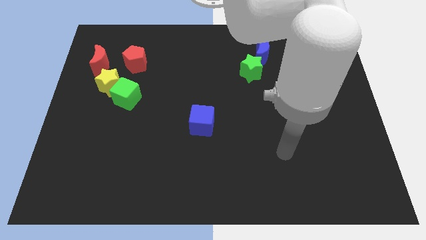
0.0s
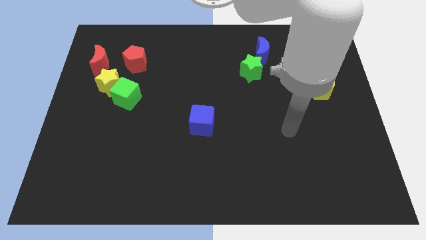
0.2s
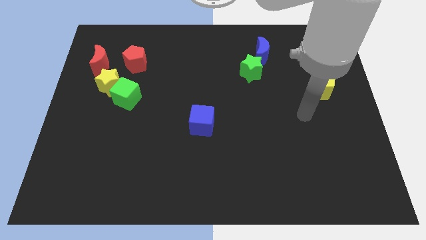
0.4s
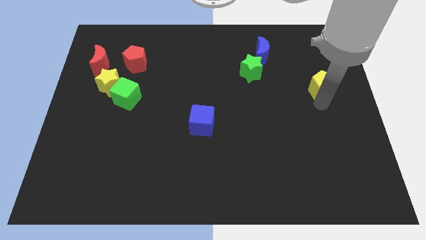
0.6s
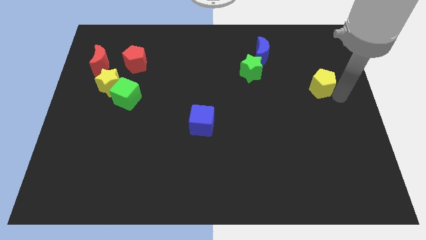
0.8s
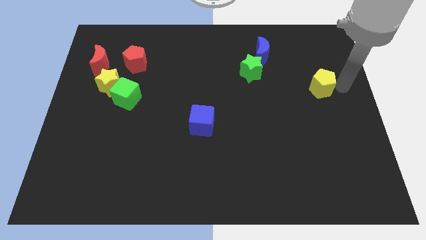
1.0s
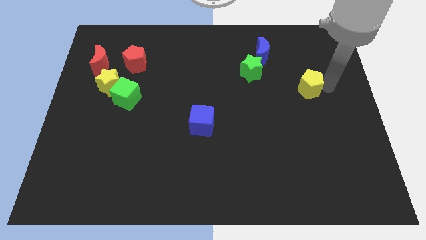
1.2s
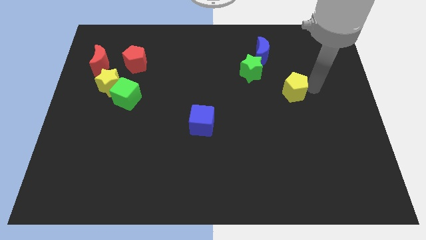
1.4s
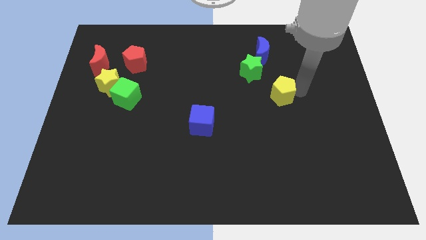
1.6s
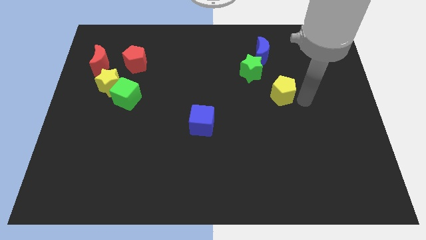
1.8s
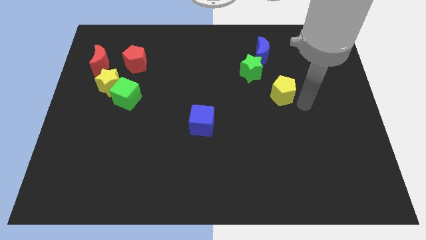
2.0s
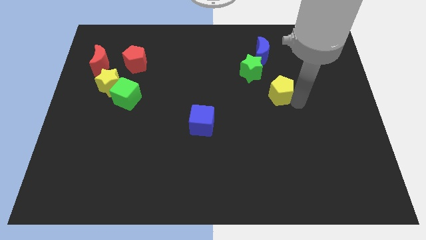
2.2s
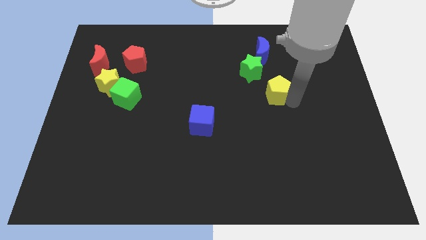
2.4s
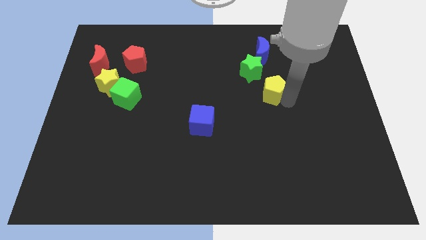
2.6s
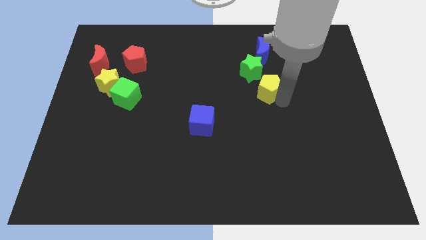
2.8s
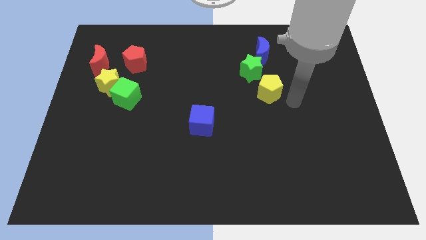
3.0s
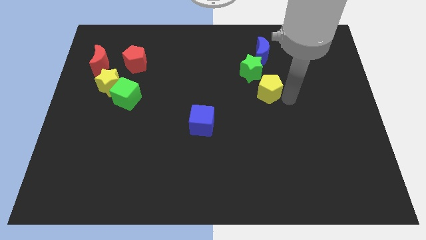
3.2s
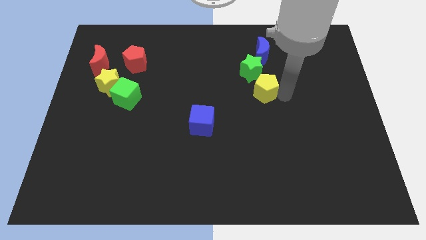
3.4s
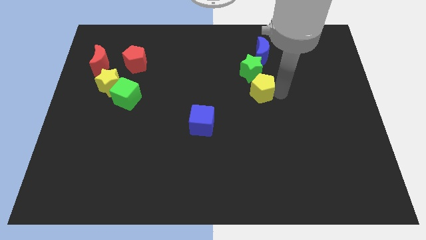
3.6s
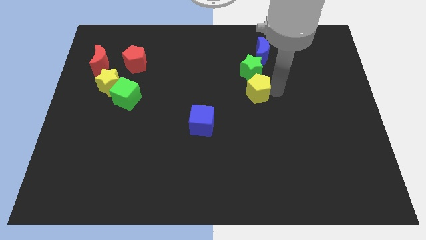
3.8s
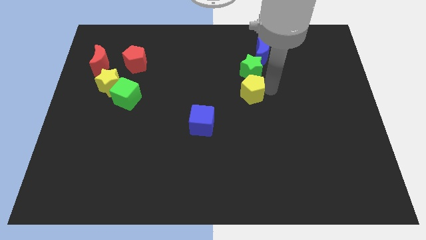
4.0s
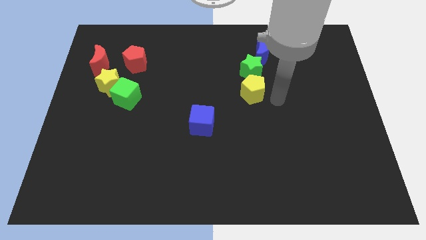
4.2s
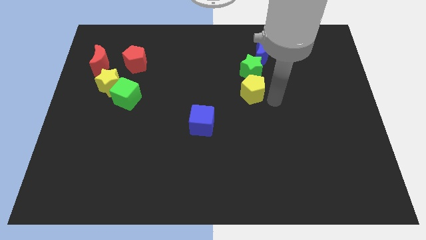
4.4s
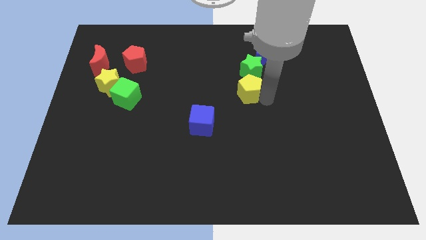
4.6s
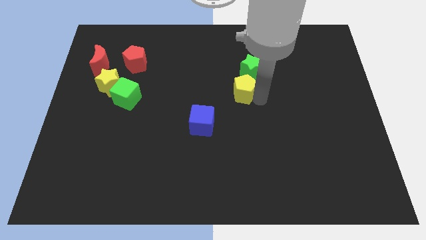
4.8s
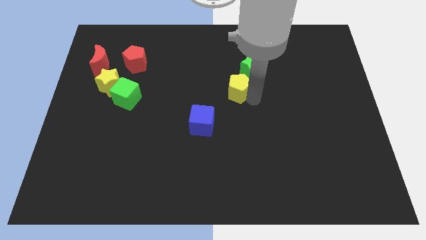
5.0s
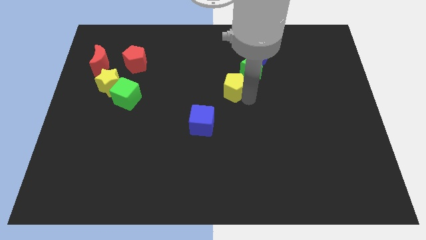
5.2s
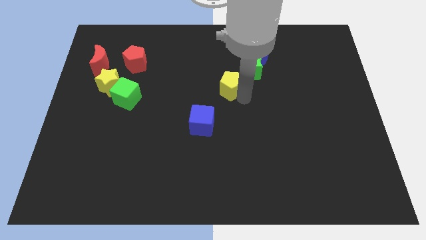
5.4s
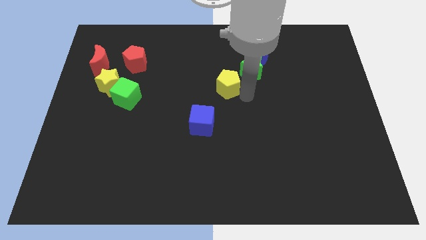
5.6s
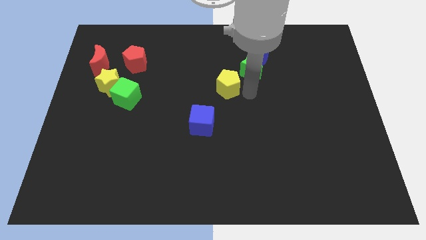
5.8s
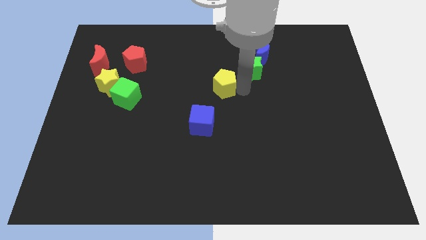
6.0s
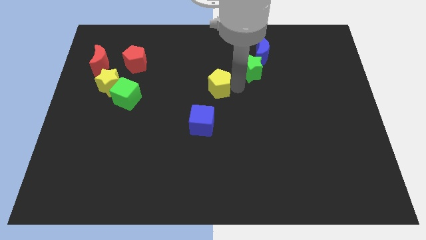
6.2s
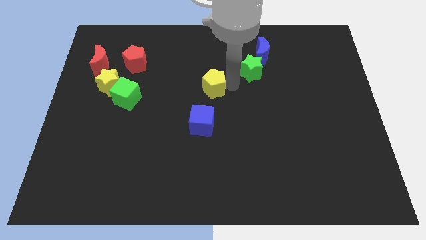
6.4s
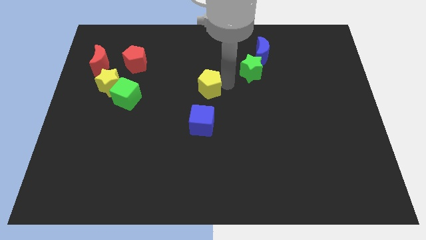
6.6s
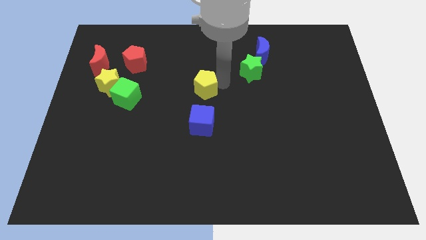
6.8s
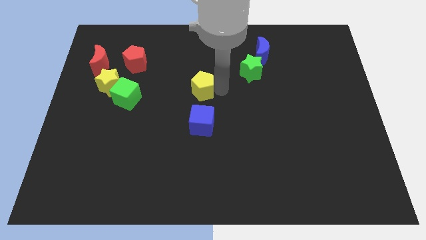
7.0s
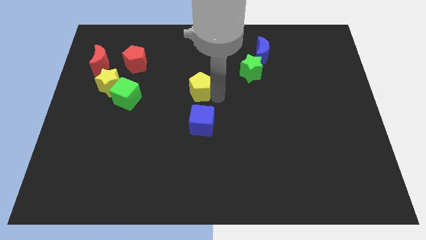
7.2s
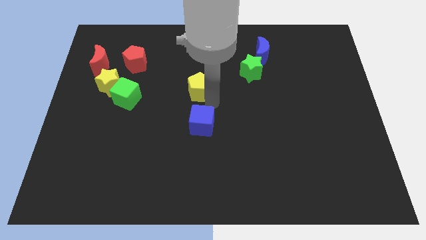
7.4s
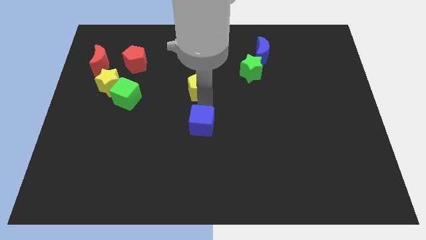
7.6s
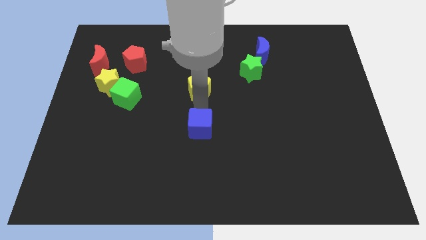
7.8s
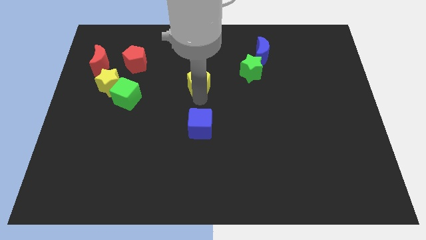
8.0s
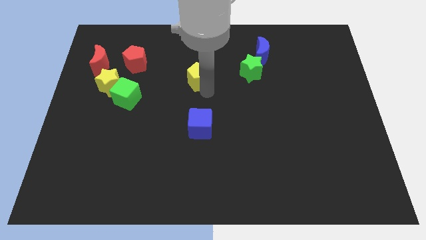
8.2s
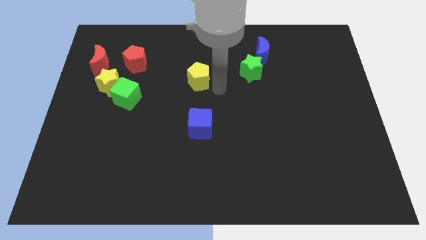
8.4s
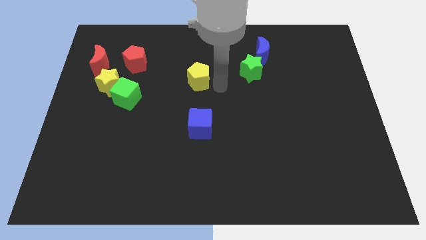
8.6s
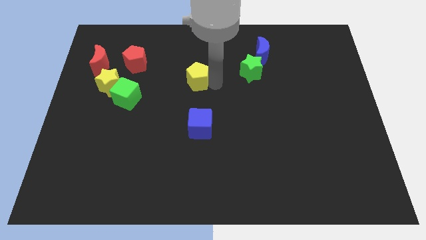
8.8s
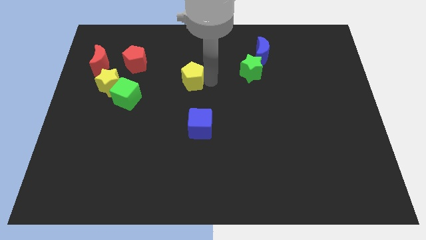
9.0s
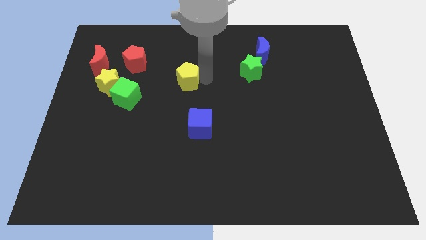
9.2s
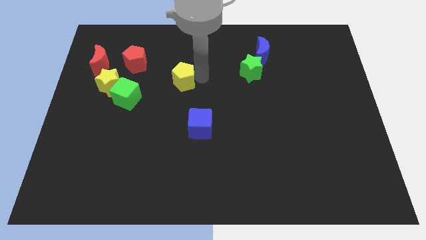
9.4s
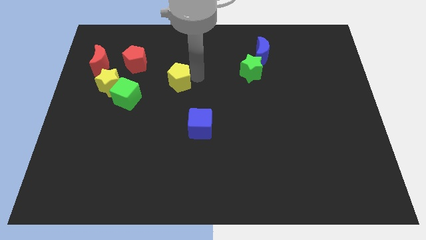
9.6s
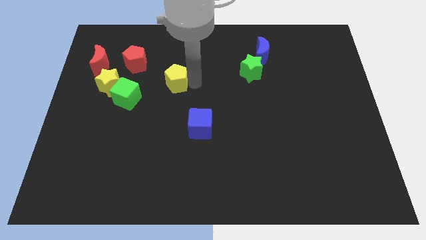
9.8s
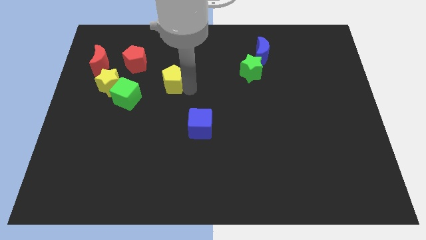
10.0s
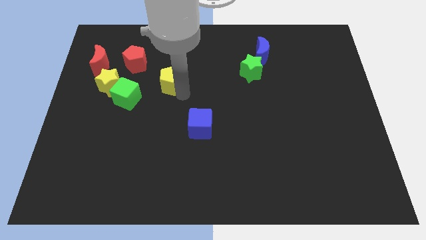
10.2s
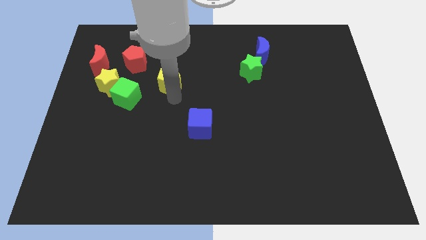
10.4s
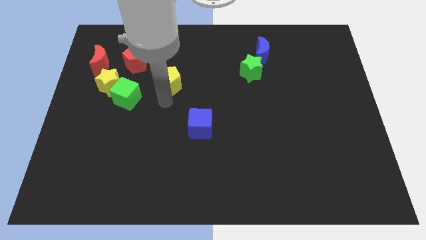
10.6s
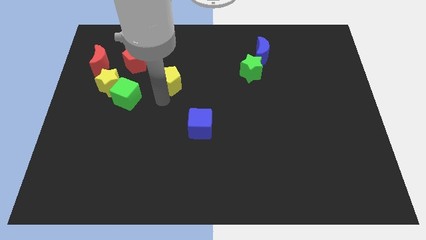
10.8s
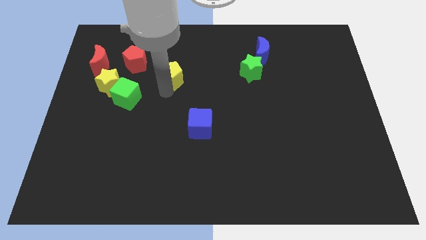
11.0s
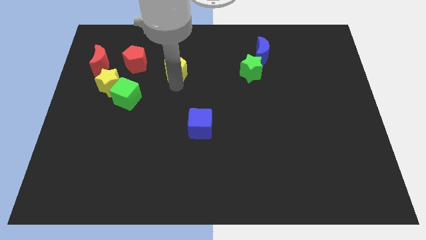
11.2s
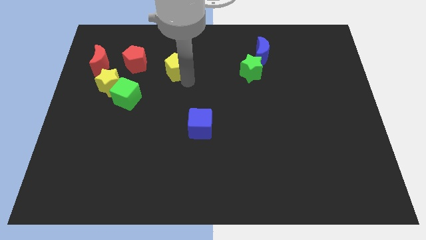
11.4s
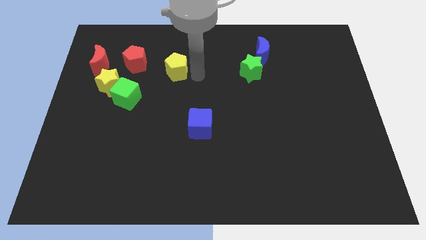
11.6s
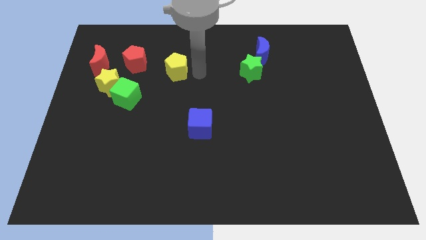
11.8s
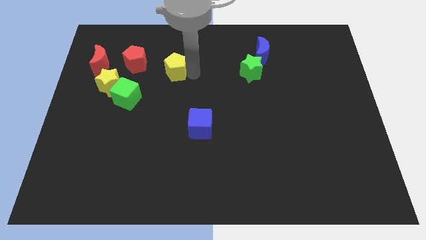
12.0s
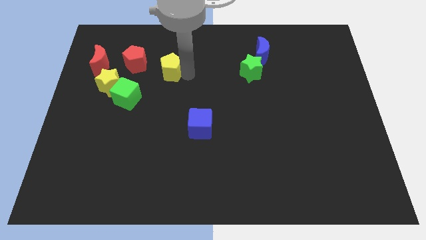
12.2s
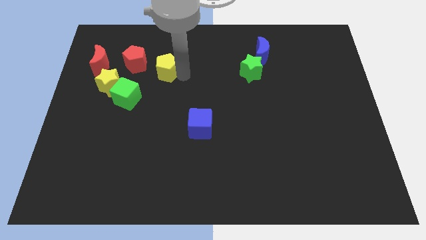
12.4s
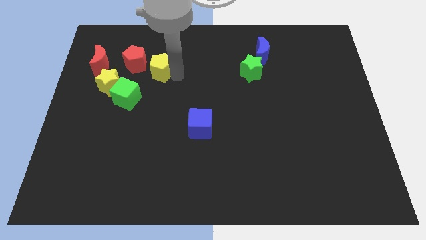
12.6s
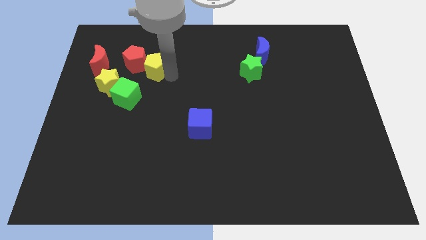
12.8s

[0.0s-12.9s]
push the yellow pentagon towards the red pentagon
